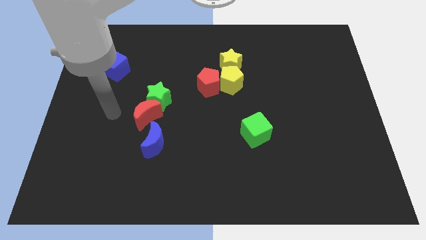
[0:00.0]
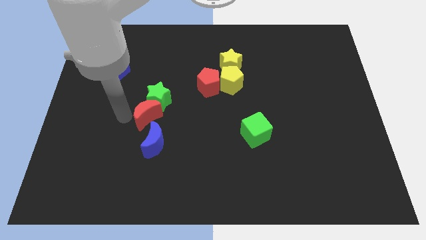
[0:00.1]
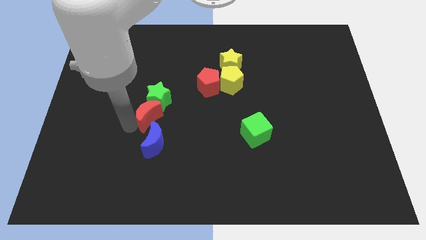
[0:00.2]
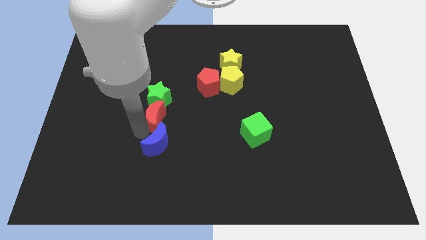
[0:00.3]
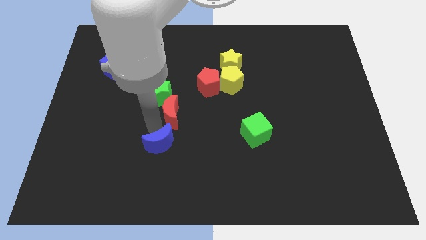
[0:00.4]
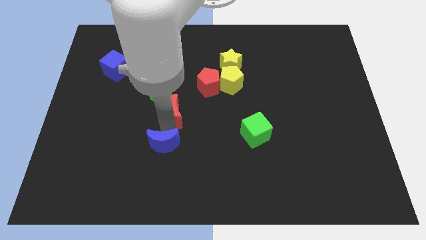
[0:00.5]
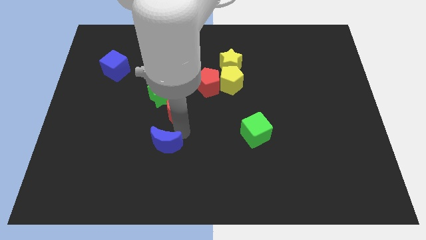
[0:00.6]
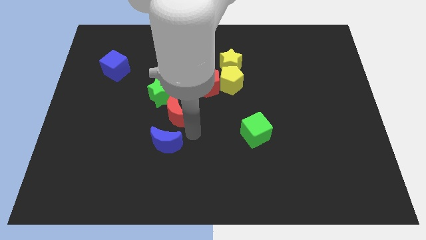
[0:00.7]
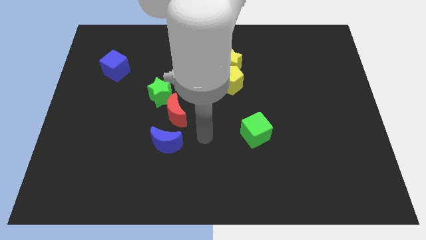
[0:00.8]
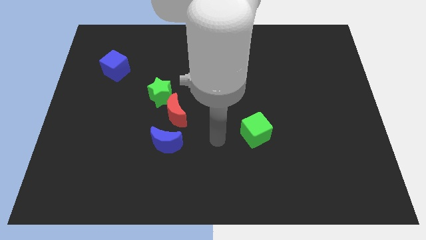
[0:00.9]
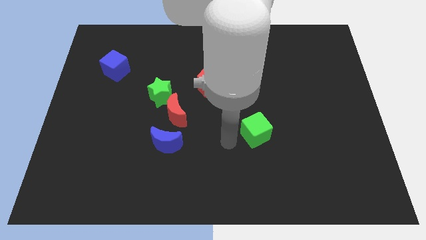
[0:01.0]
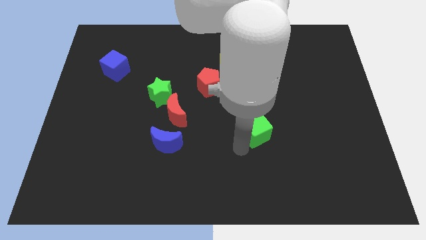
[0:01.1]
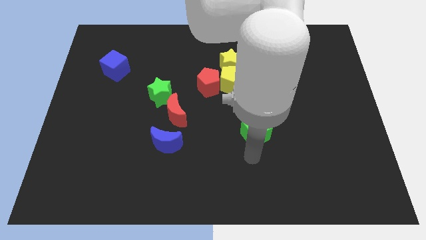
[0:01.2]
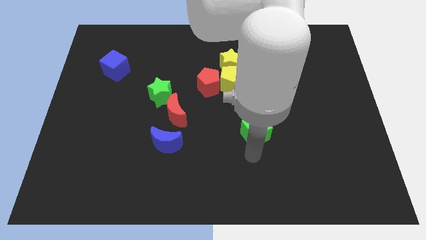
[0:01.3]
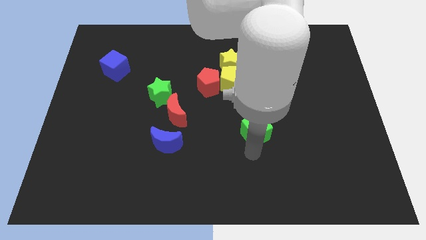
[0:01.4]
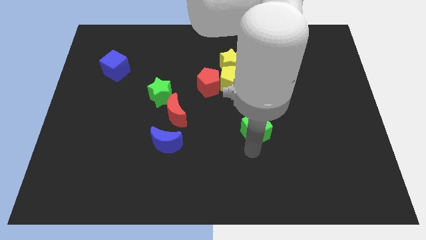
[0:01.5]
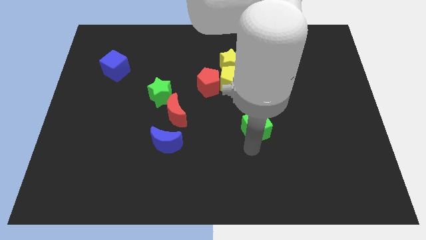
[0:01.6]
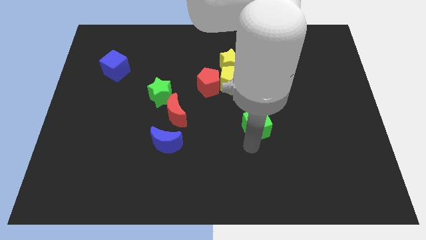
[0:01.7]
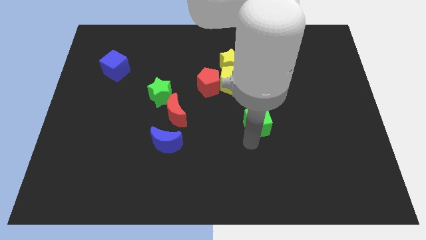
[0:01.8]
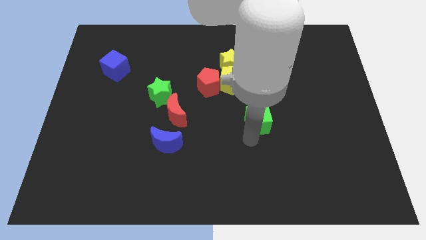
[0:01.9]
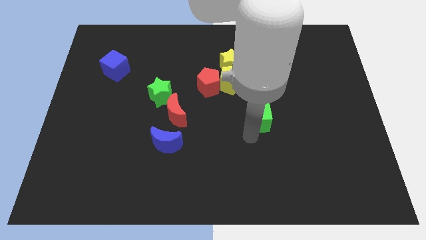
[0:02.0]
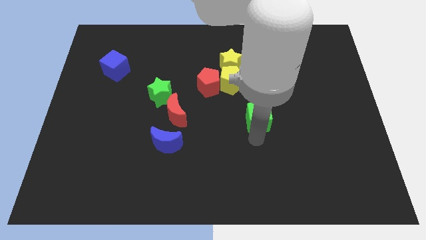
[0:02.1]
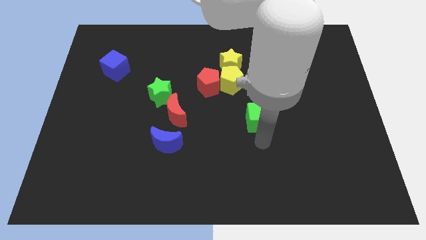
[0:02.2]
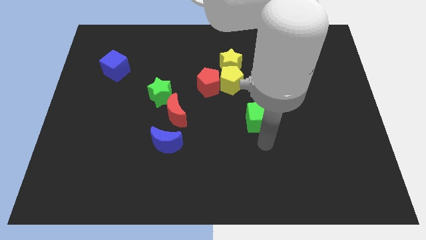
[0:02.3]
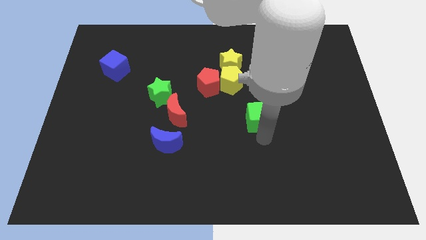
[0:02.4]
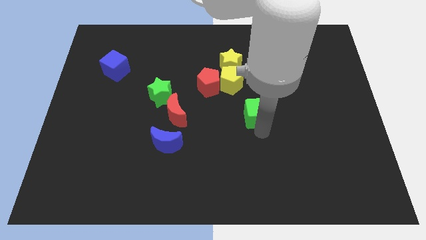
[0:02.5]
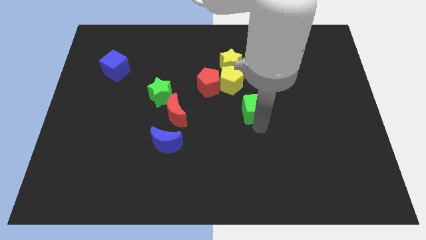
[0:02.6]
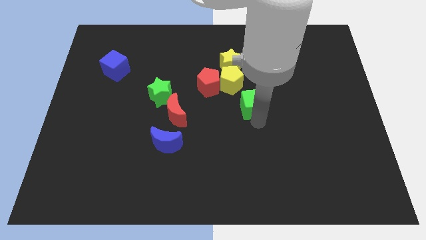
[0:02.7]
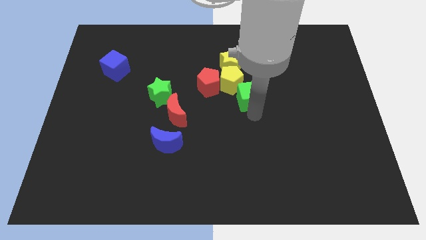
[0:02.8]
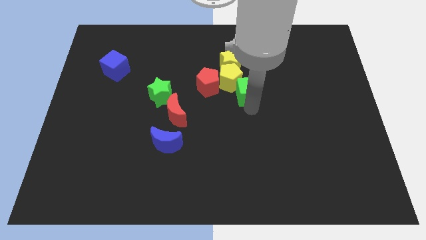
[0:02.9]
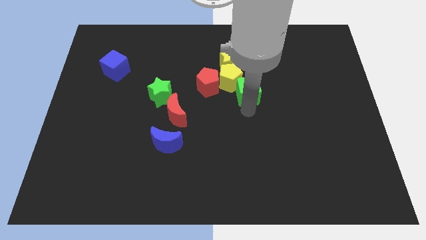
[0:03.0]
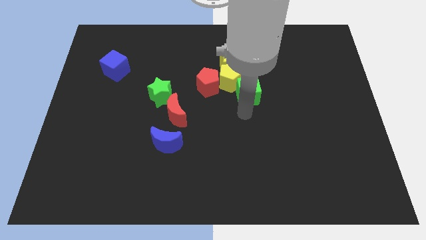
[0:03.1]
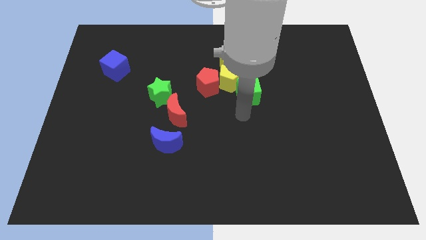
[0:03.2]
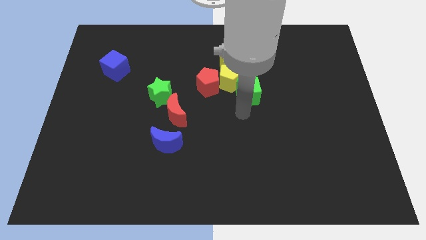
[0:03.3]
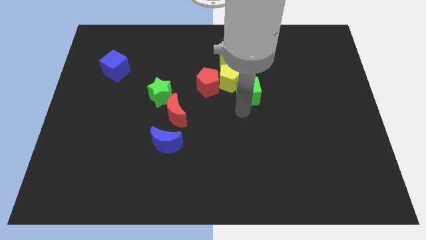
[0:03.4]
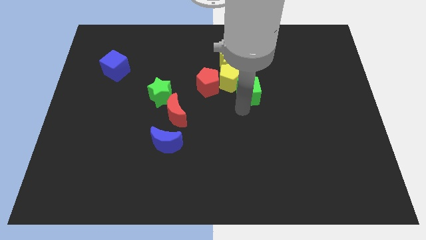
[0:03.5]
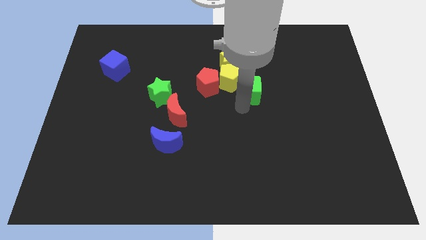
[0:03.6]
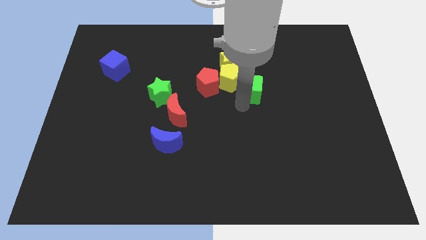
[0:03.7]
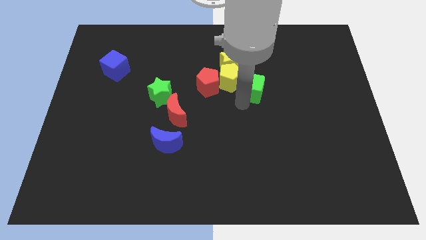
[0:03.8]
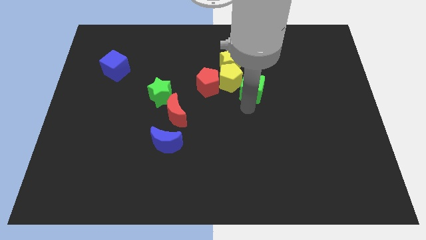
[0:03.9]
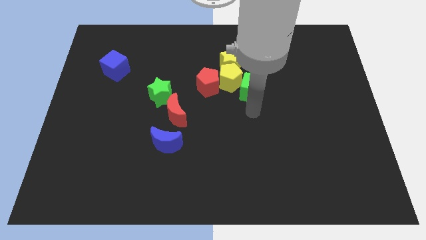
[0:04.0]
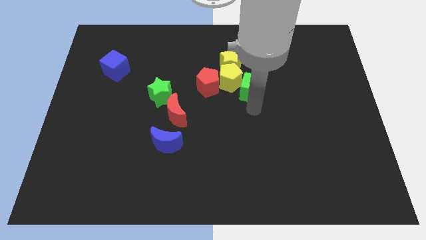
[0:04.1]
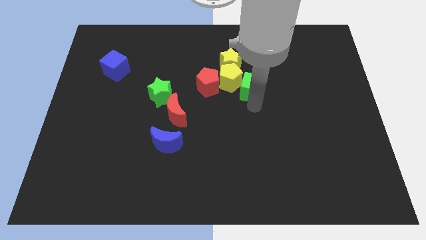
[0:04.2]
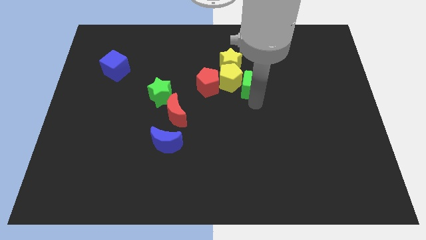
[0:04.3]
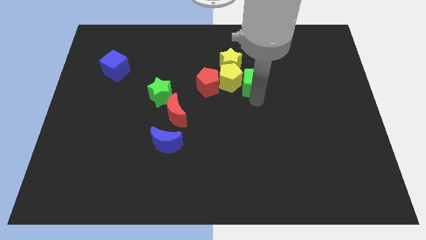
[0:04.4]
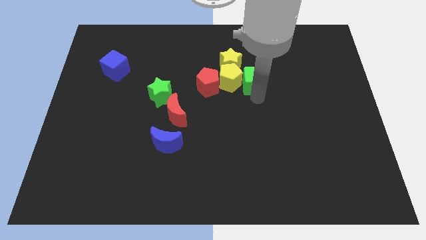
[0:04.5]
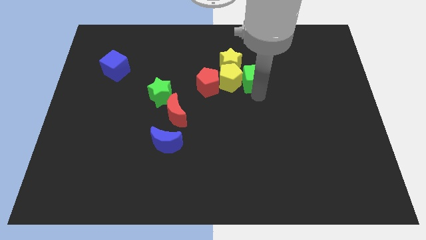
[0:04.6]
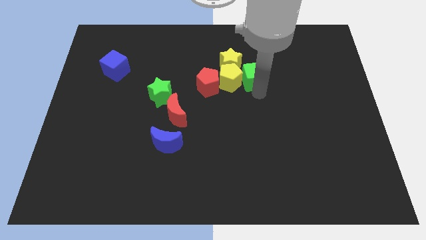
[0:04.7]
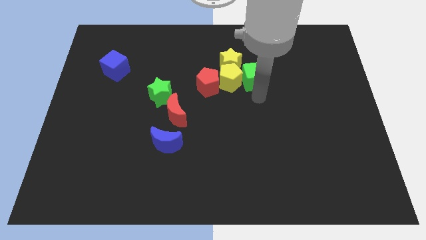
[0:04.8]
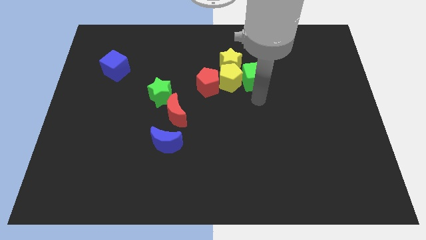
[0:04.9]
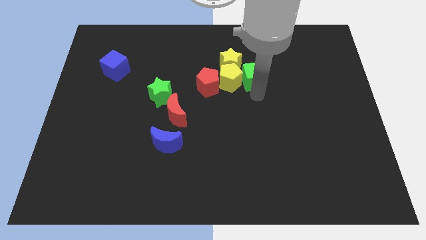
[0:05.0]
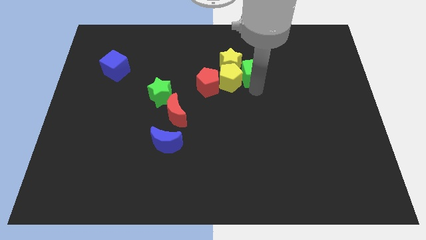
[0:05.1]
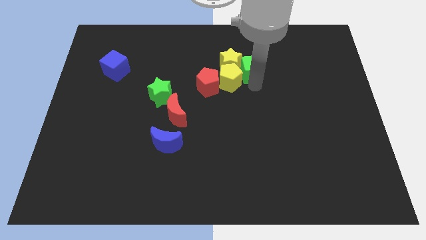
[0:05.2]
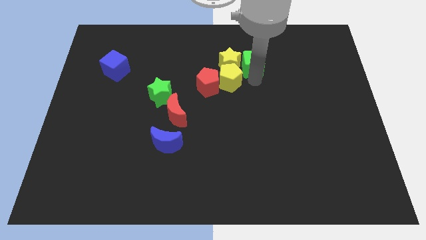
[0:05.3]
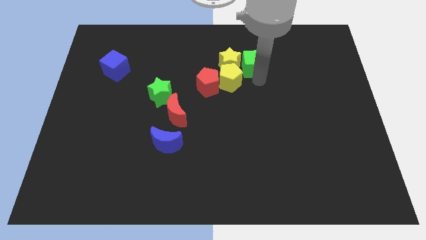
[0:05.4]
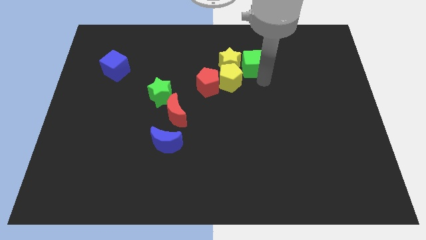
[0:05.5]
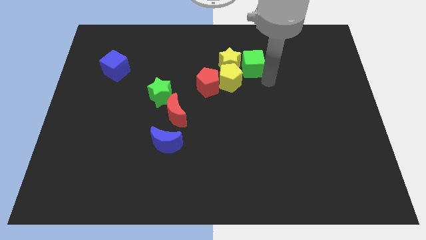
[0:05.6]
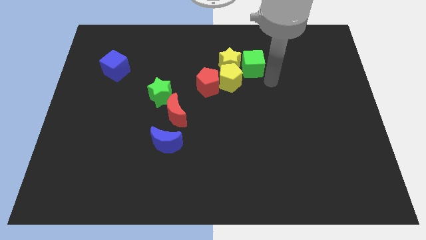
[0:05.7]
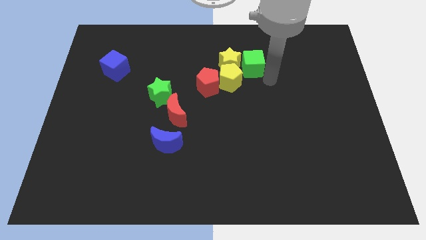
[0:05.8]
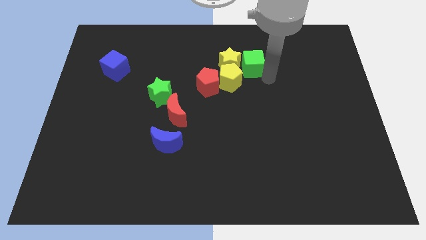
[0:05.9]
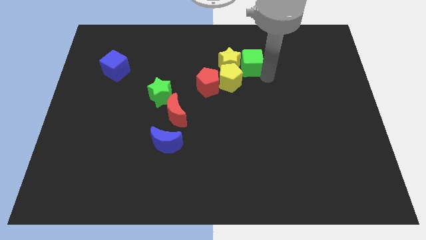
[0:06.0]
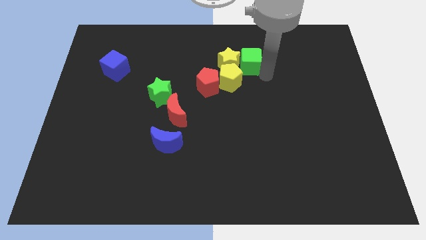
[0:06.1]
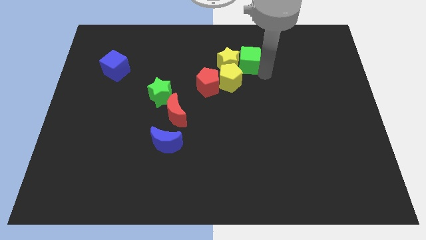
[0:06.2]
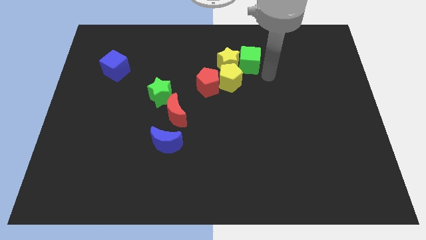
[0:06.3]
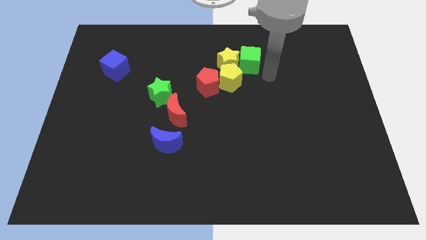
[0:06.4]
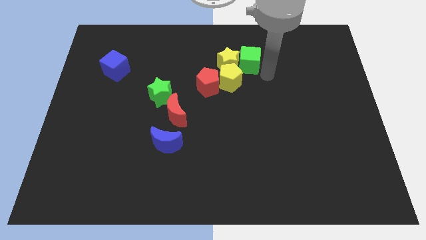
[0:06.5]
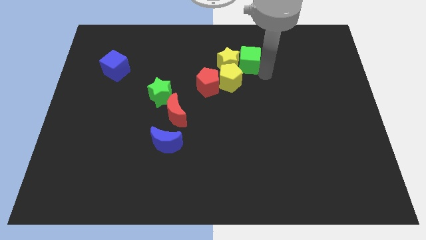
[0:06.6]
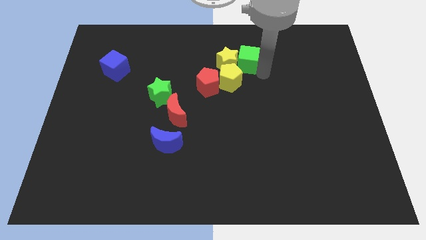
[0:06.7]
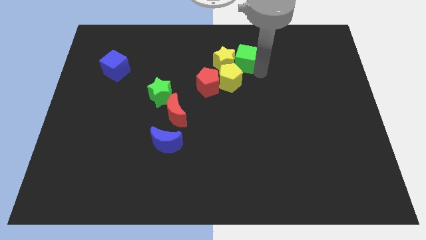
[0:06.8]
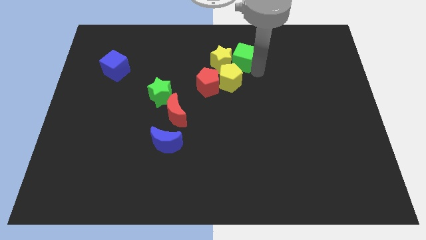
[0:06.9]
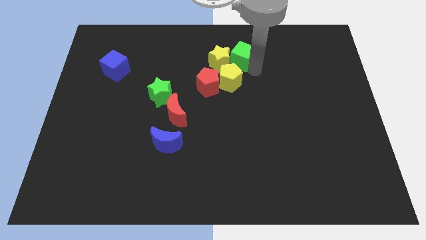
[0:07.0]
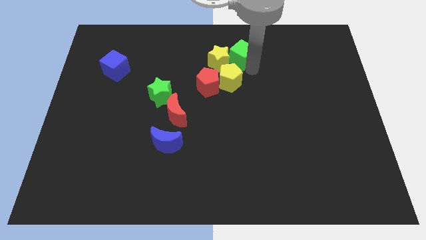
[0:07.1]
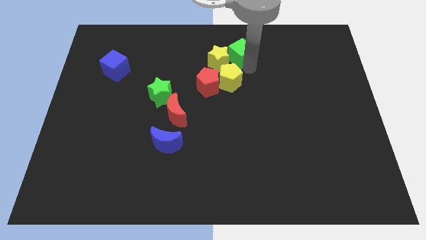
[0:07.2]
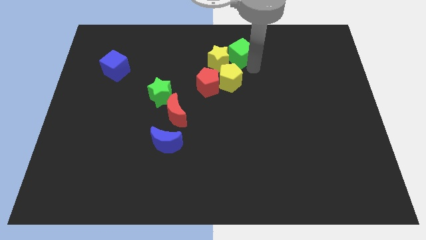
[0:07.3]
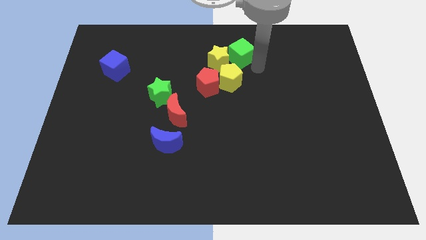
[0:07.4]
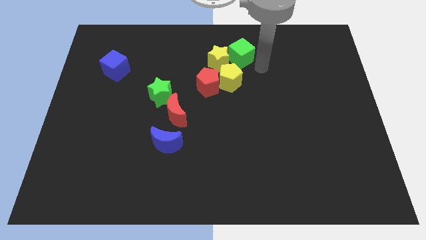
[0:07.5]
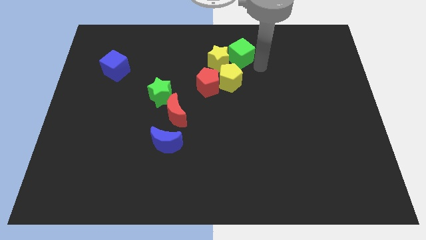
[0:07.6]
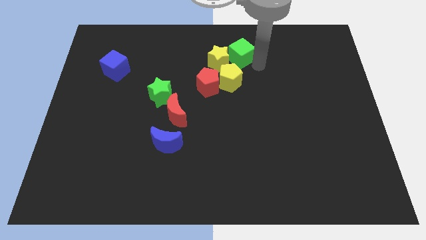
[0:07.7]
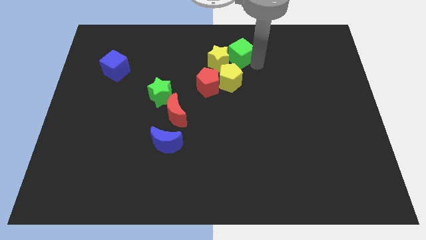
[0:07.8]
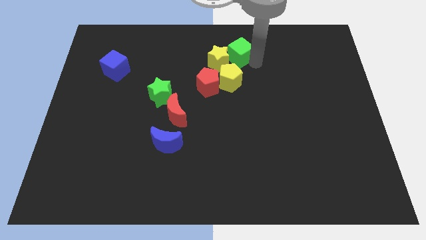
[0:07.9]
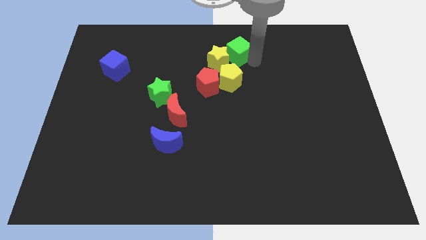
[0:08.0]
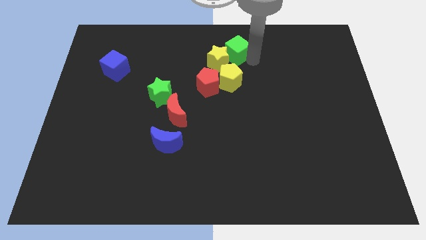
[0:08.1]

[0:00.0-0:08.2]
slide the green cube to the top
